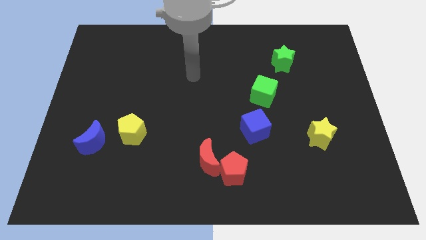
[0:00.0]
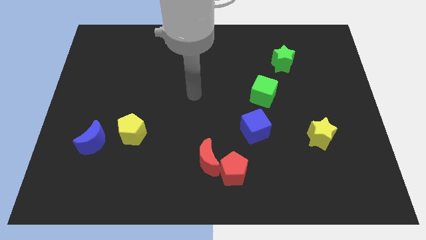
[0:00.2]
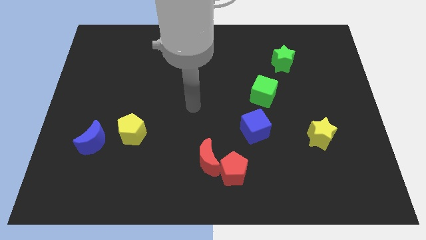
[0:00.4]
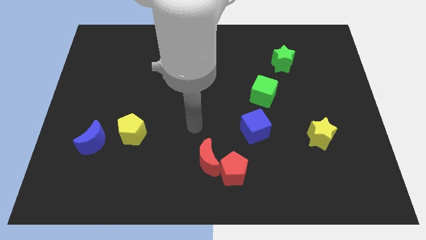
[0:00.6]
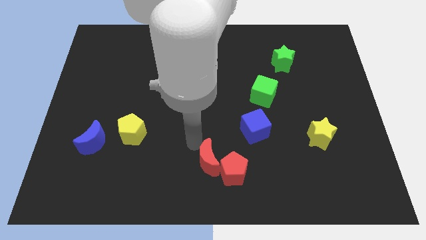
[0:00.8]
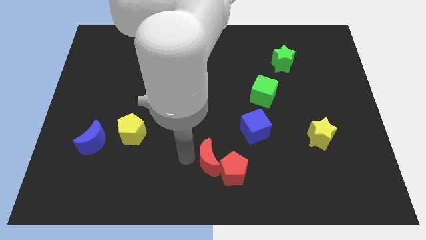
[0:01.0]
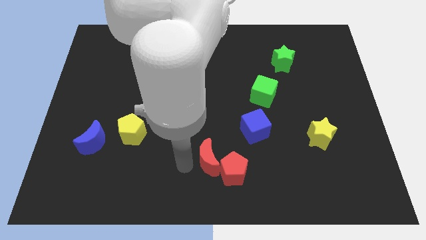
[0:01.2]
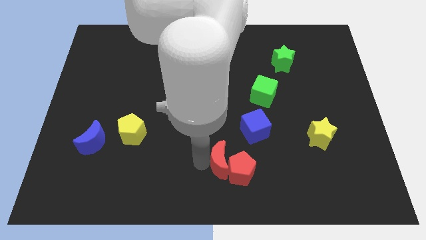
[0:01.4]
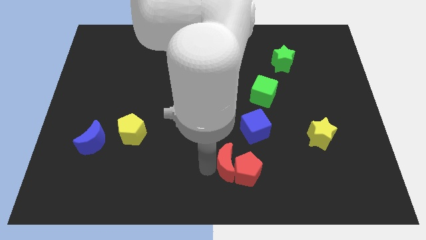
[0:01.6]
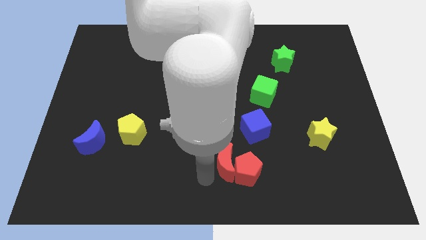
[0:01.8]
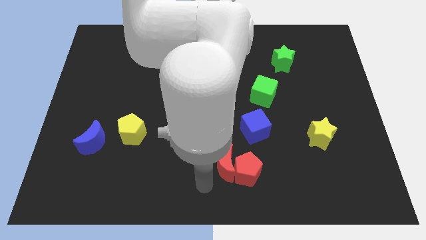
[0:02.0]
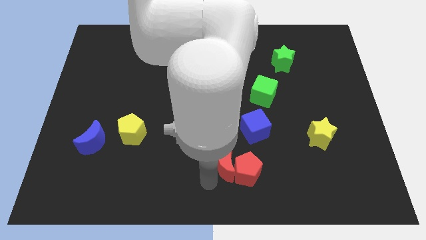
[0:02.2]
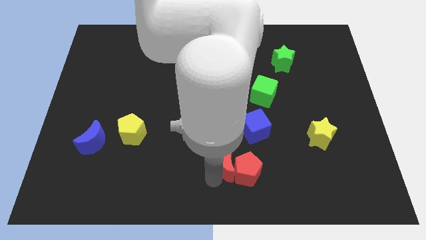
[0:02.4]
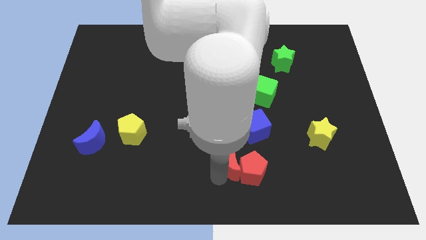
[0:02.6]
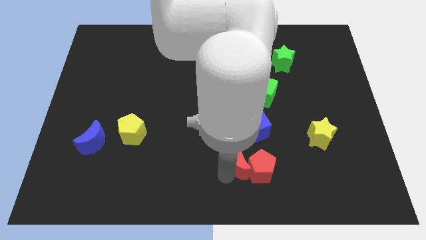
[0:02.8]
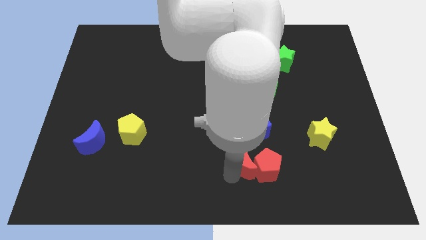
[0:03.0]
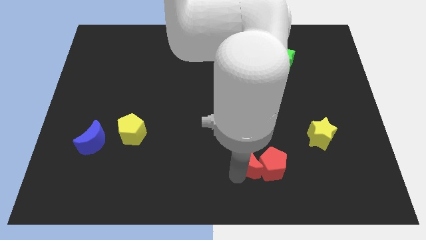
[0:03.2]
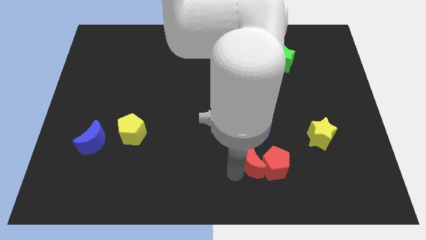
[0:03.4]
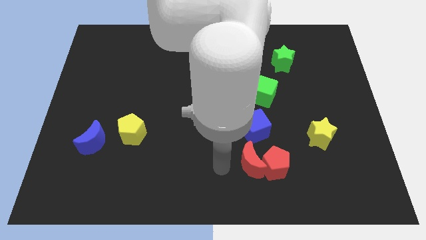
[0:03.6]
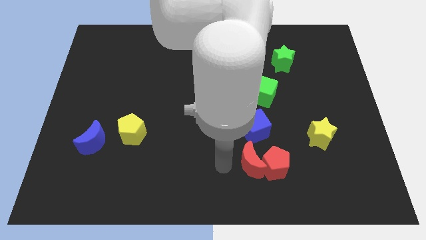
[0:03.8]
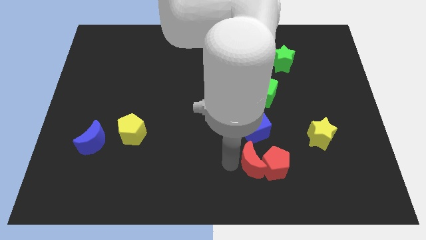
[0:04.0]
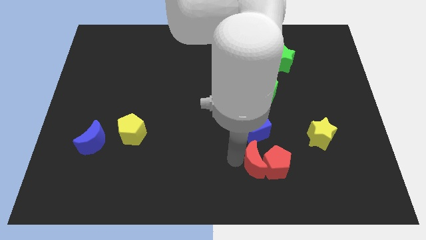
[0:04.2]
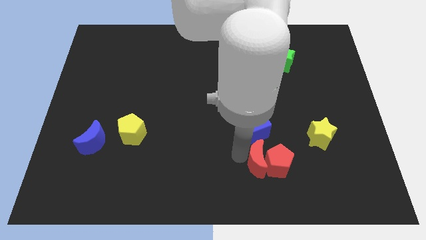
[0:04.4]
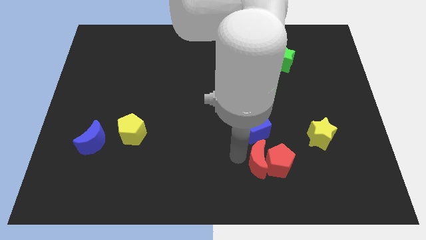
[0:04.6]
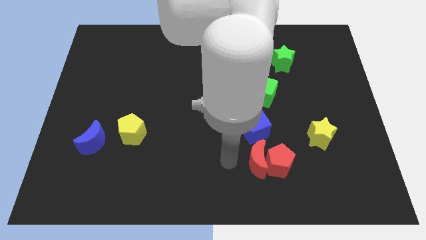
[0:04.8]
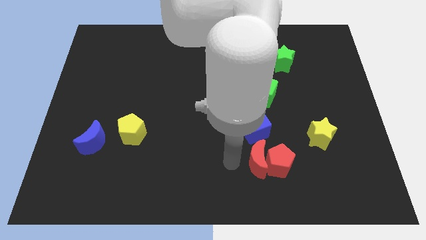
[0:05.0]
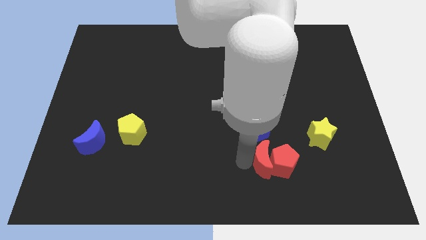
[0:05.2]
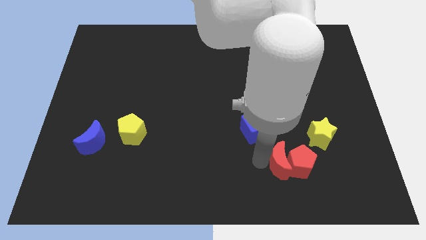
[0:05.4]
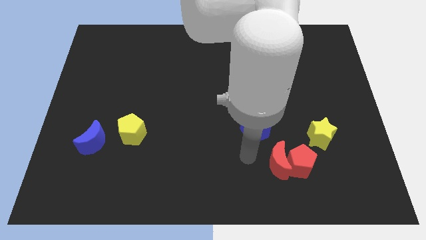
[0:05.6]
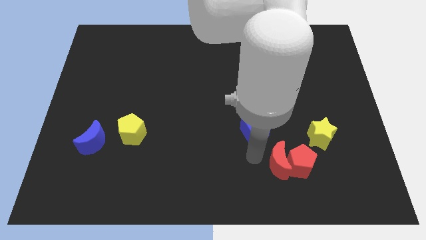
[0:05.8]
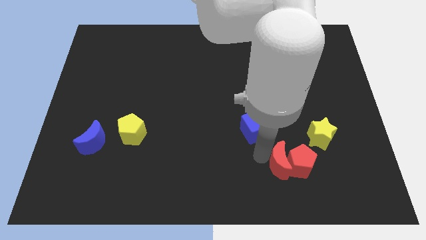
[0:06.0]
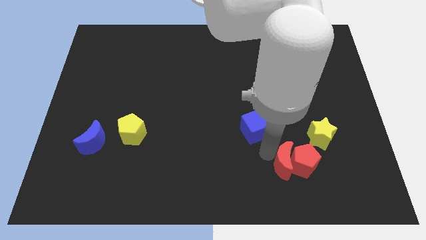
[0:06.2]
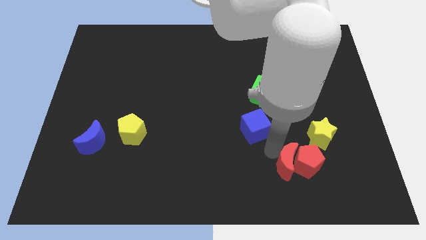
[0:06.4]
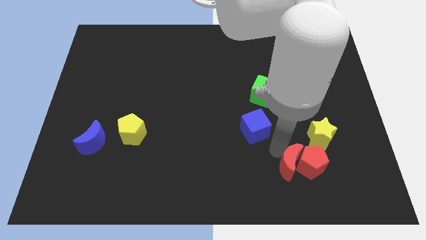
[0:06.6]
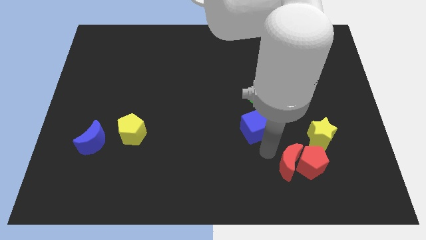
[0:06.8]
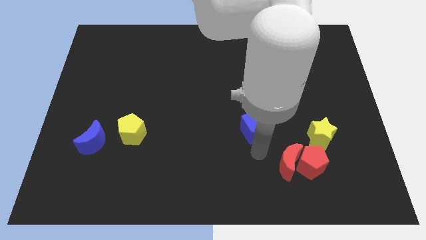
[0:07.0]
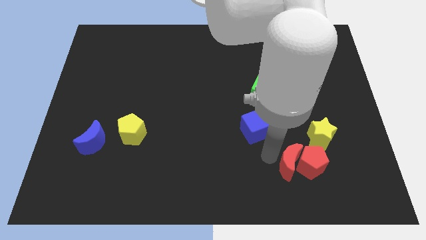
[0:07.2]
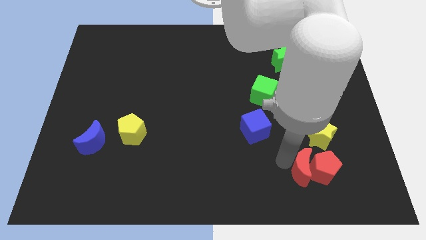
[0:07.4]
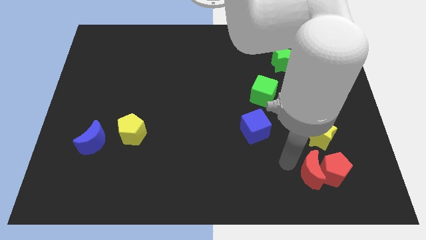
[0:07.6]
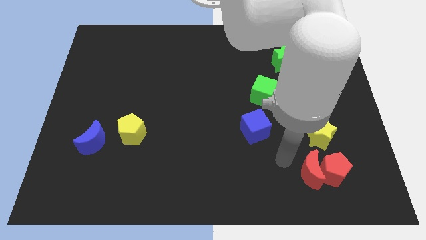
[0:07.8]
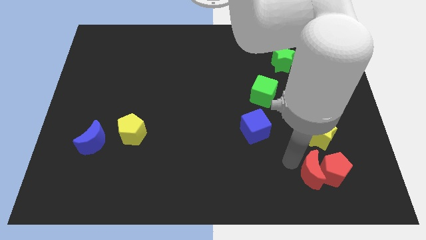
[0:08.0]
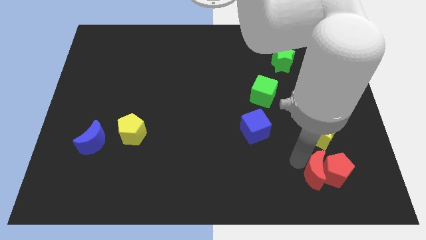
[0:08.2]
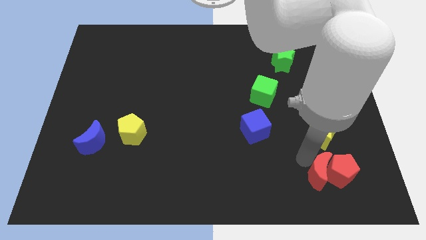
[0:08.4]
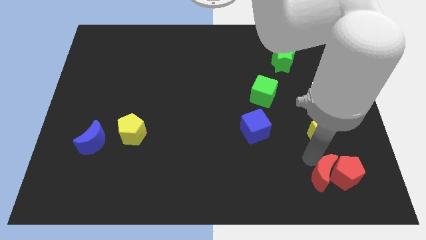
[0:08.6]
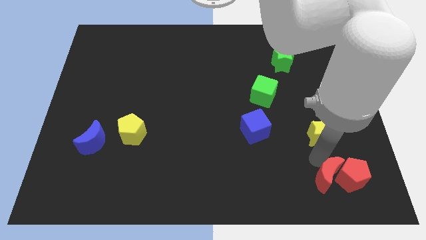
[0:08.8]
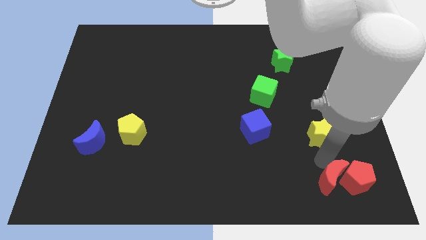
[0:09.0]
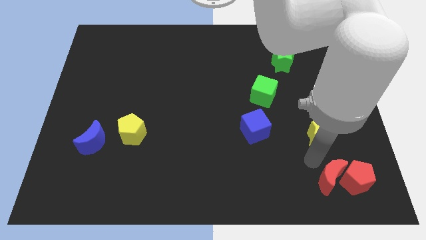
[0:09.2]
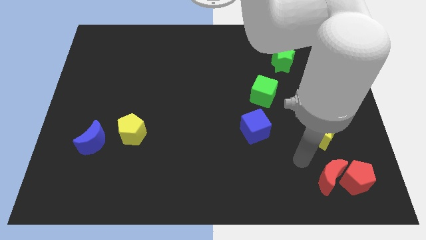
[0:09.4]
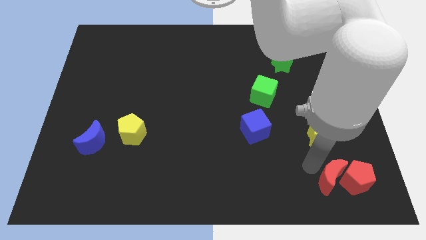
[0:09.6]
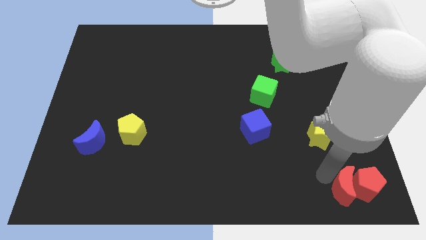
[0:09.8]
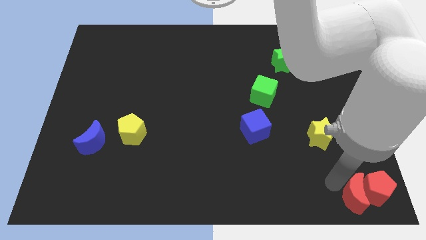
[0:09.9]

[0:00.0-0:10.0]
slide the red moon to the bottom right
